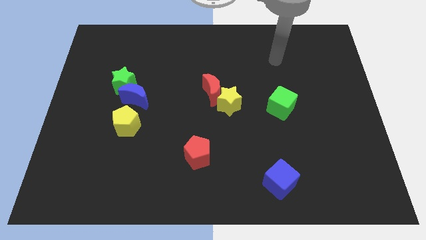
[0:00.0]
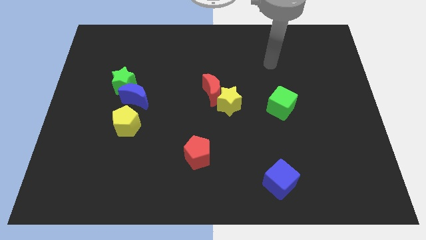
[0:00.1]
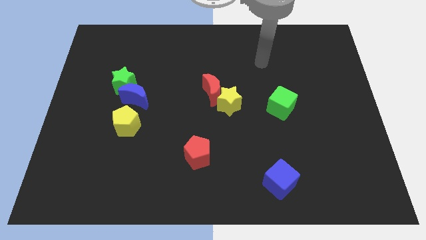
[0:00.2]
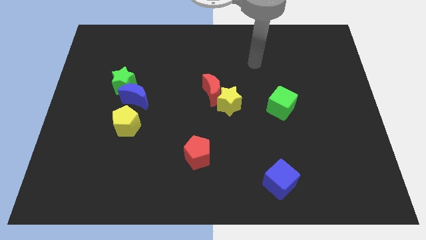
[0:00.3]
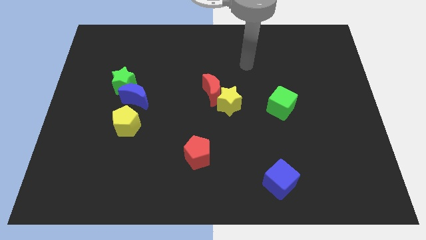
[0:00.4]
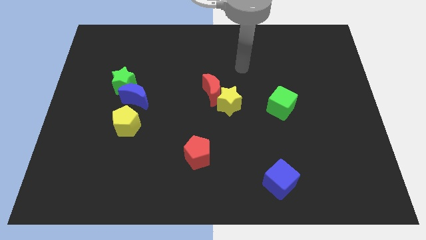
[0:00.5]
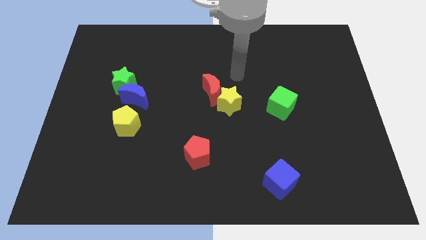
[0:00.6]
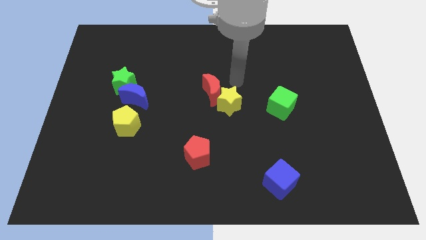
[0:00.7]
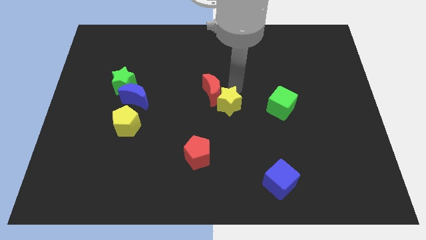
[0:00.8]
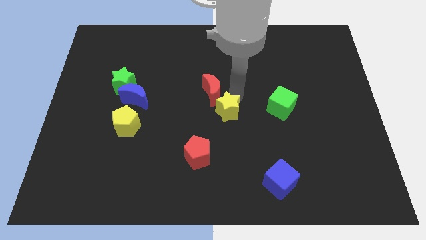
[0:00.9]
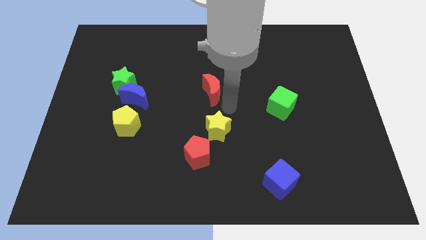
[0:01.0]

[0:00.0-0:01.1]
separate the red moon from the yellow star

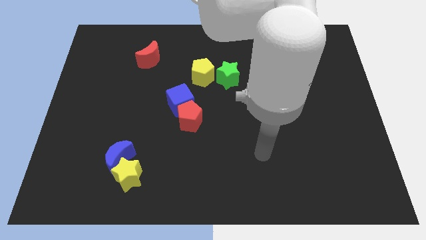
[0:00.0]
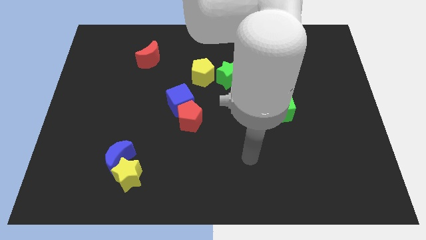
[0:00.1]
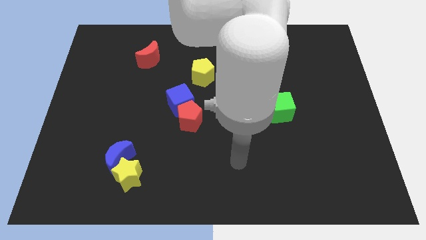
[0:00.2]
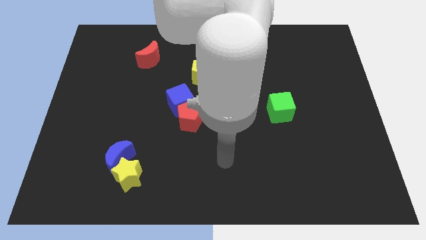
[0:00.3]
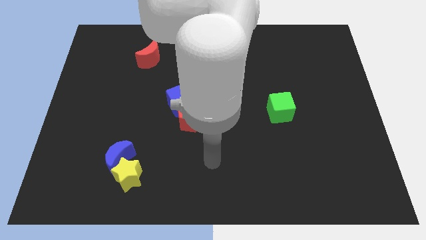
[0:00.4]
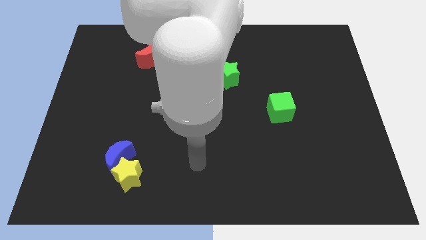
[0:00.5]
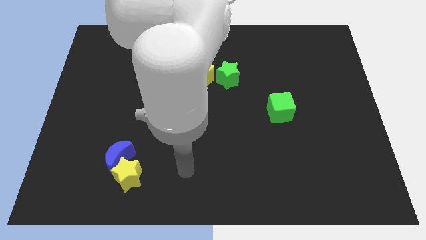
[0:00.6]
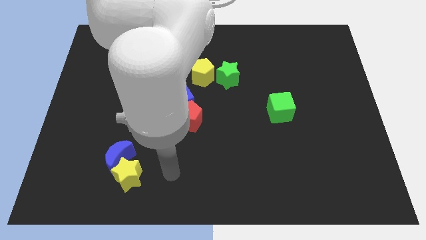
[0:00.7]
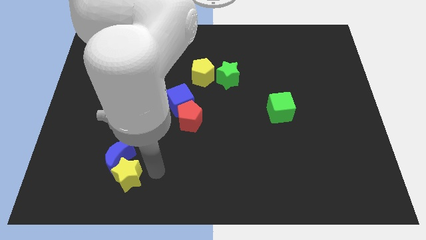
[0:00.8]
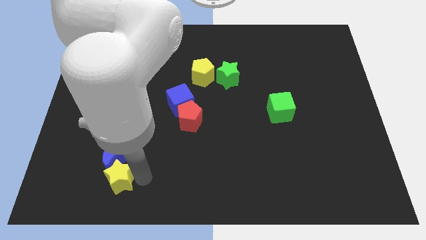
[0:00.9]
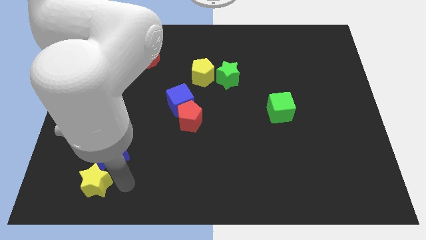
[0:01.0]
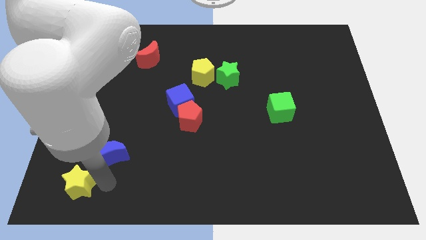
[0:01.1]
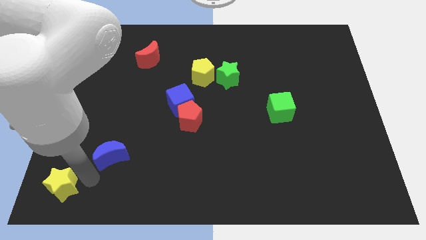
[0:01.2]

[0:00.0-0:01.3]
separate the blue moon from the yellow star

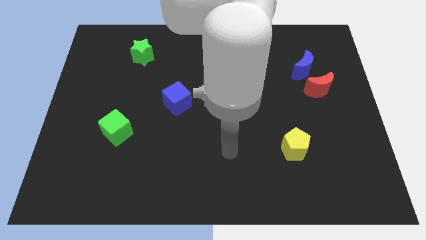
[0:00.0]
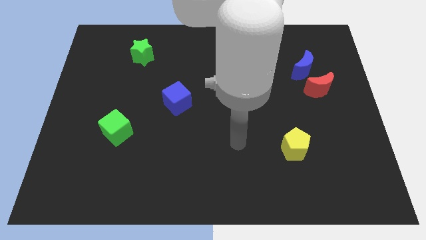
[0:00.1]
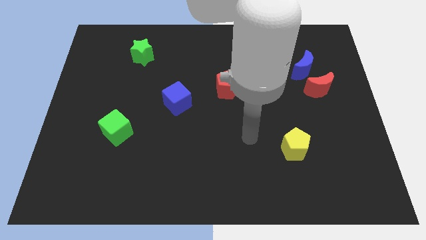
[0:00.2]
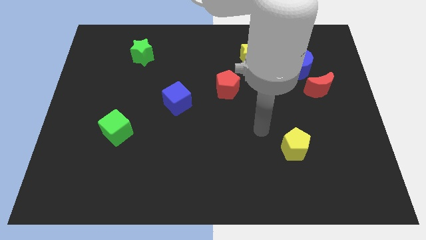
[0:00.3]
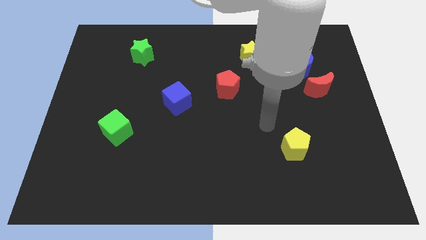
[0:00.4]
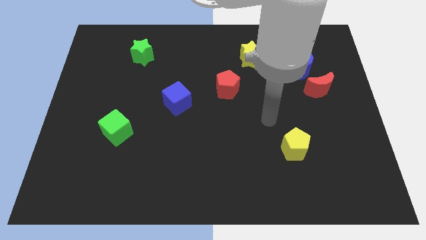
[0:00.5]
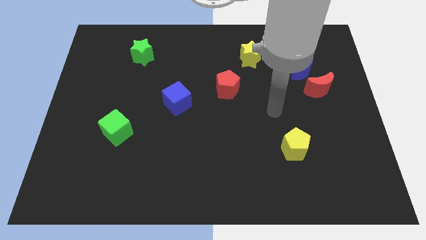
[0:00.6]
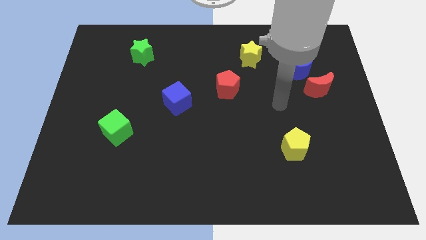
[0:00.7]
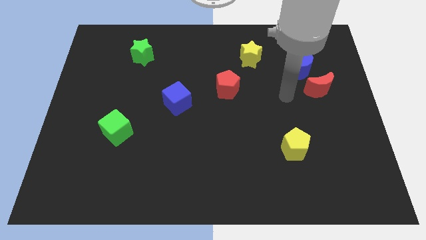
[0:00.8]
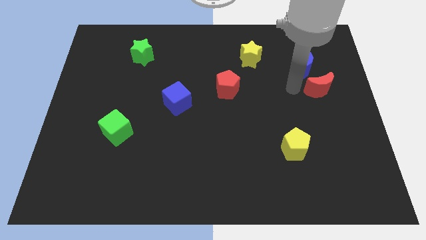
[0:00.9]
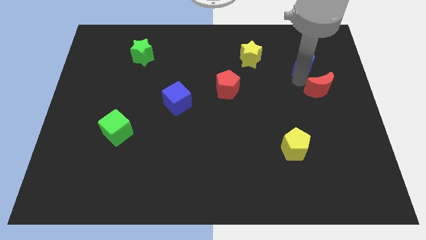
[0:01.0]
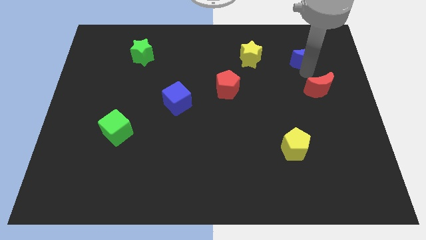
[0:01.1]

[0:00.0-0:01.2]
separate the red moon from the blue moon

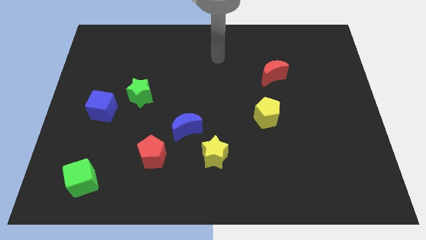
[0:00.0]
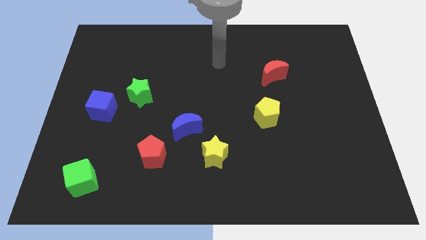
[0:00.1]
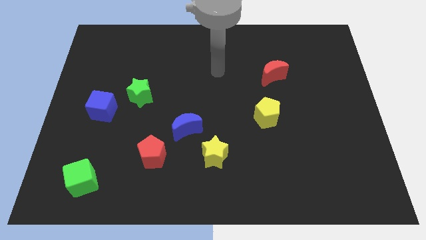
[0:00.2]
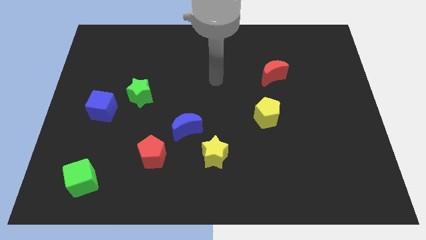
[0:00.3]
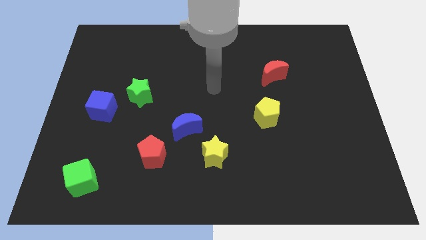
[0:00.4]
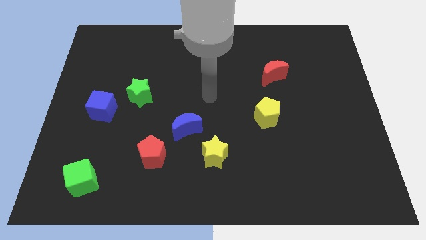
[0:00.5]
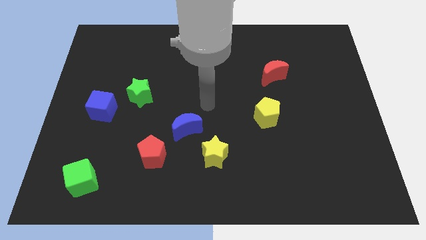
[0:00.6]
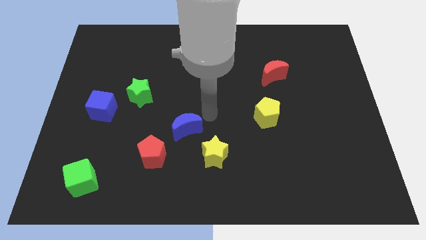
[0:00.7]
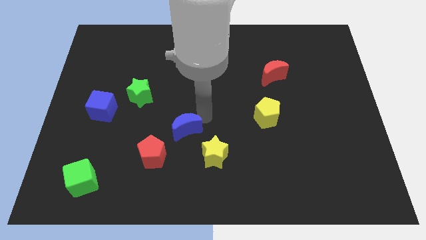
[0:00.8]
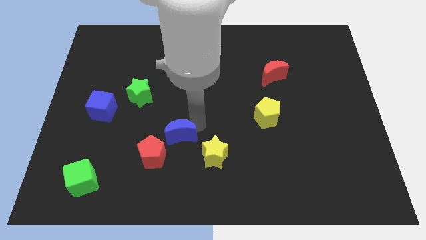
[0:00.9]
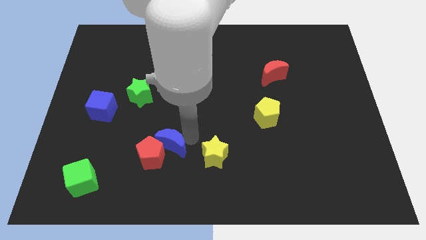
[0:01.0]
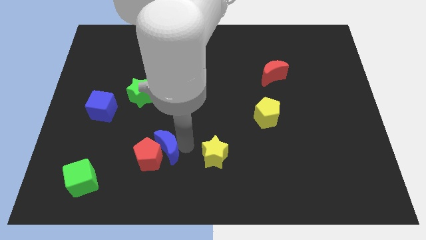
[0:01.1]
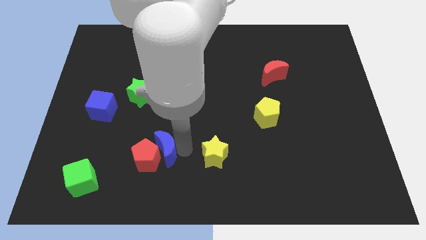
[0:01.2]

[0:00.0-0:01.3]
move the yellow star away from the blue moon

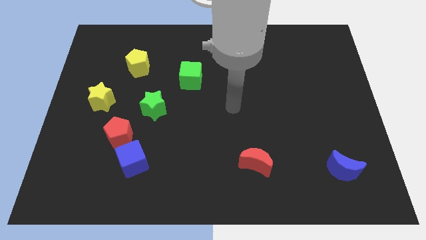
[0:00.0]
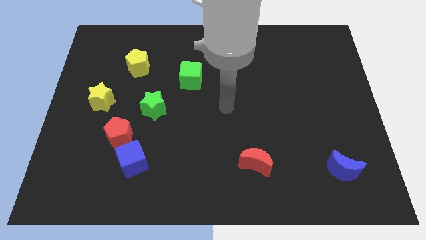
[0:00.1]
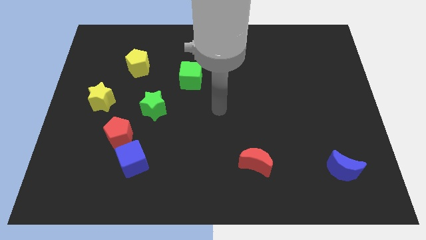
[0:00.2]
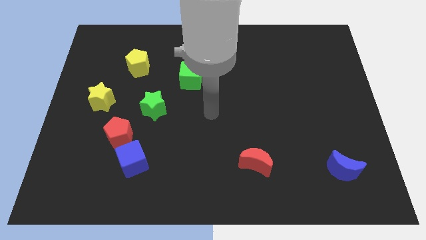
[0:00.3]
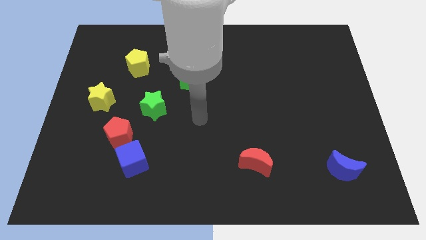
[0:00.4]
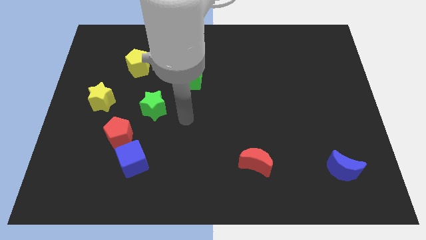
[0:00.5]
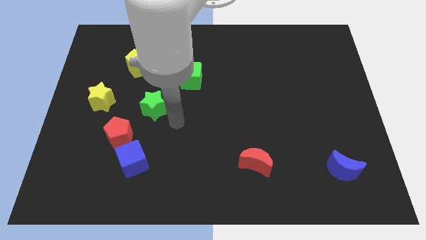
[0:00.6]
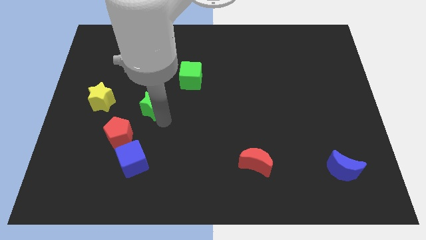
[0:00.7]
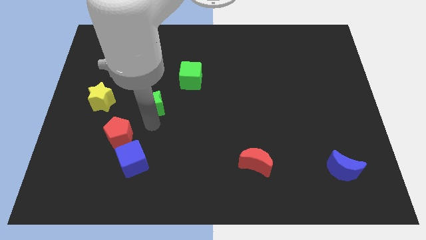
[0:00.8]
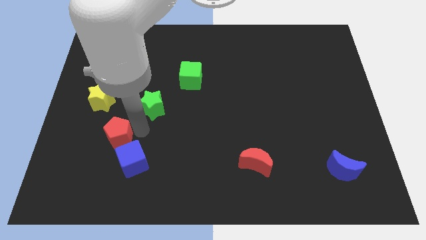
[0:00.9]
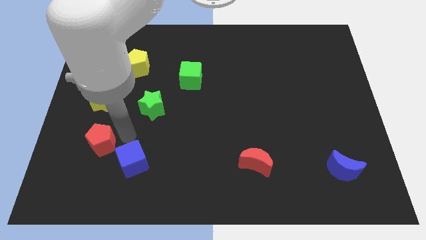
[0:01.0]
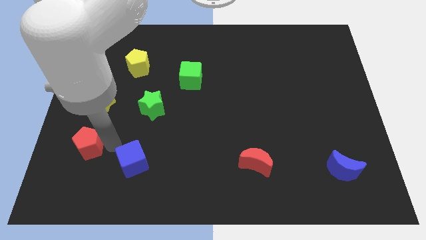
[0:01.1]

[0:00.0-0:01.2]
separate the blue cube from the red pentagon

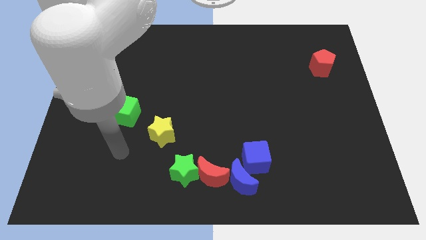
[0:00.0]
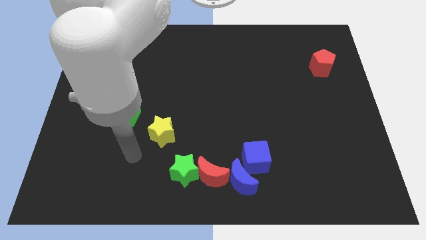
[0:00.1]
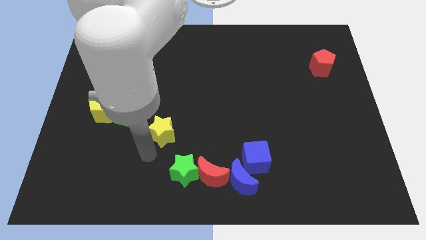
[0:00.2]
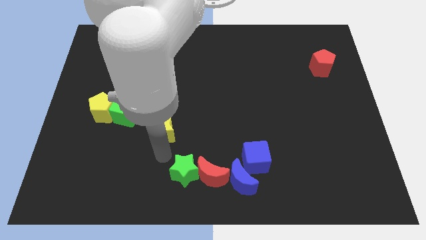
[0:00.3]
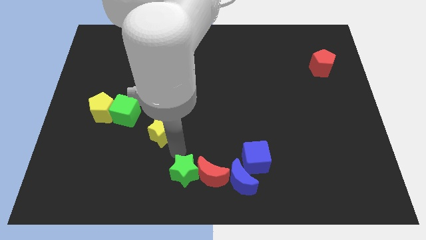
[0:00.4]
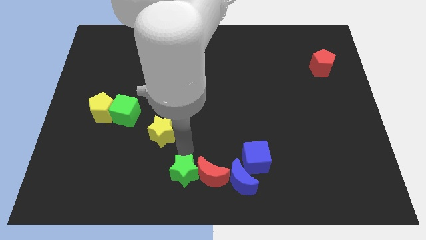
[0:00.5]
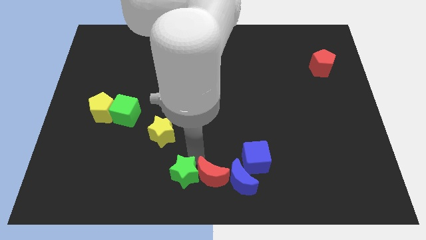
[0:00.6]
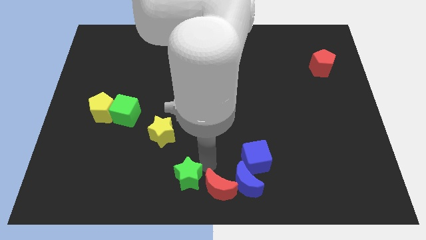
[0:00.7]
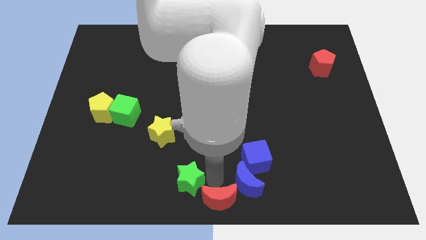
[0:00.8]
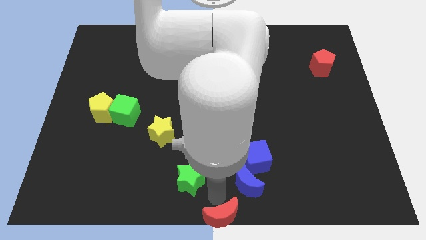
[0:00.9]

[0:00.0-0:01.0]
move the green star away from the red moon

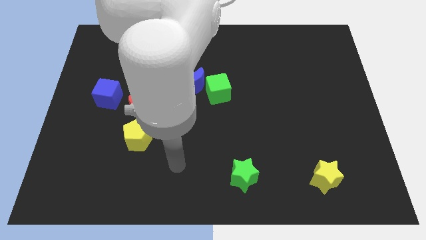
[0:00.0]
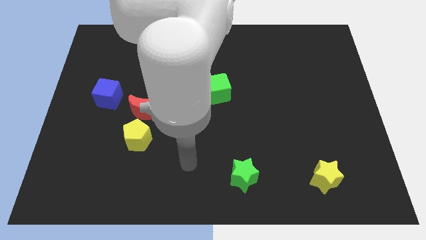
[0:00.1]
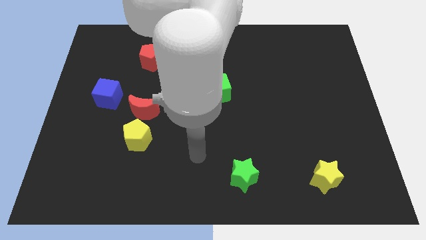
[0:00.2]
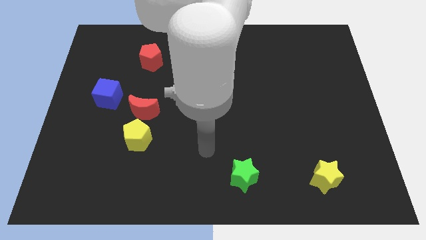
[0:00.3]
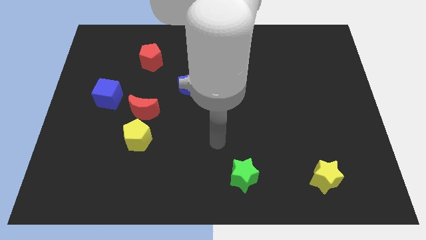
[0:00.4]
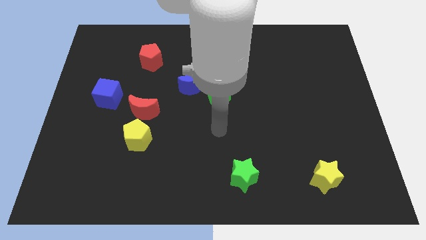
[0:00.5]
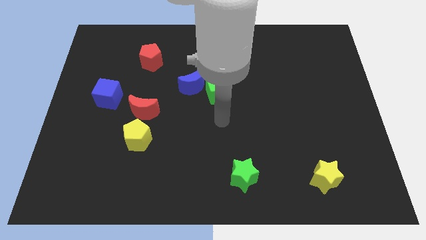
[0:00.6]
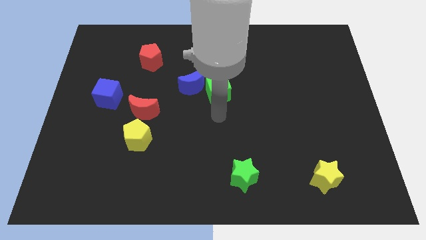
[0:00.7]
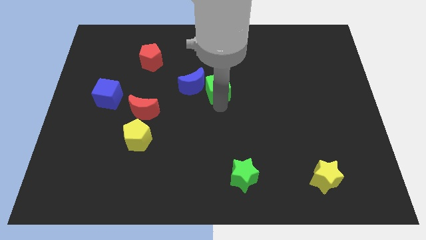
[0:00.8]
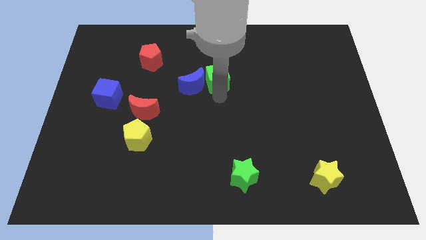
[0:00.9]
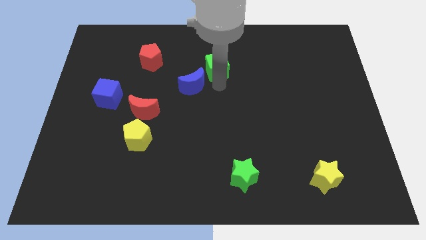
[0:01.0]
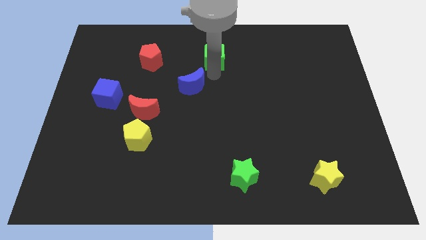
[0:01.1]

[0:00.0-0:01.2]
pull the blue moon apart from the green cube

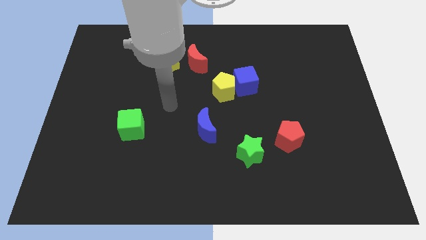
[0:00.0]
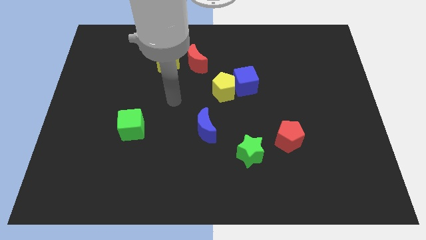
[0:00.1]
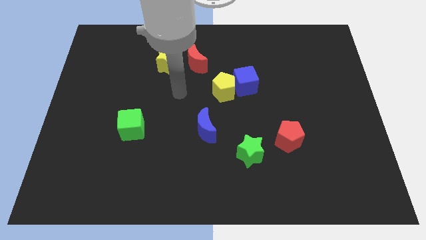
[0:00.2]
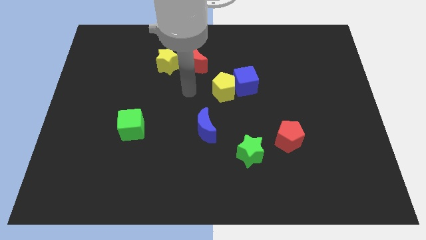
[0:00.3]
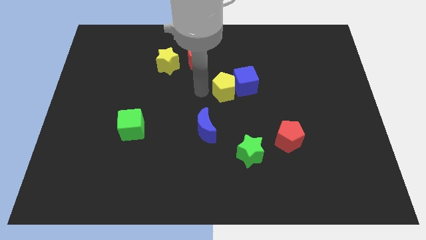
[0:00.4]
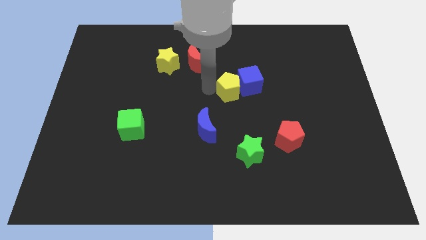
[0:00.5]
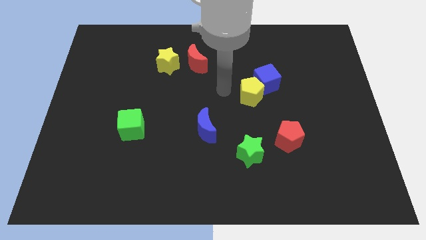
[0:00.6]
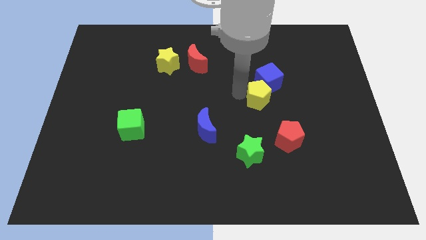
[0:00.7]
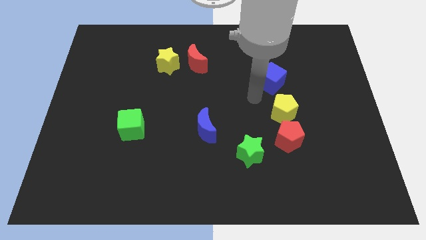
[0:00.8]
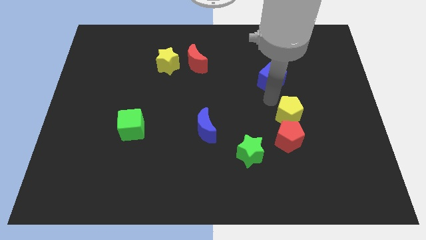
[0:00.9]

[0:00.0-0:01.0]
move the blue cube away from the yellow pentagon
